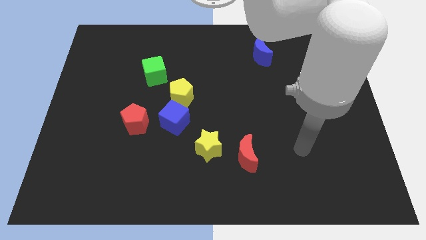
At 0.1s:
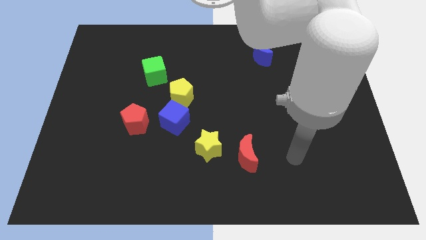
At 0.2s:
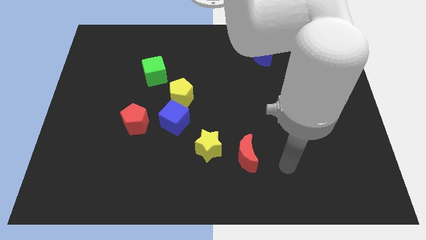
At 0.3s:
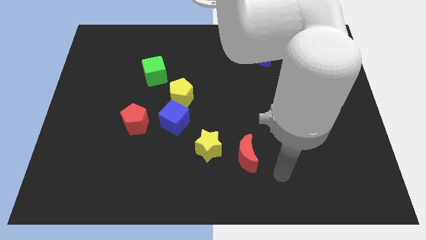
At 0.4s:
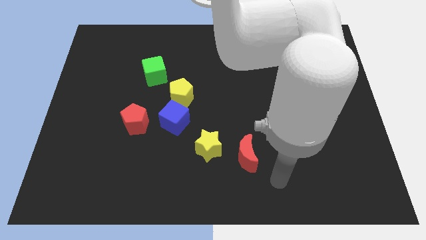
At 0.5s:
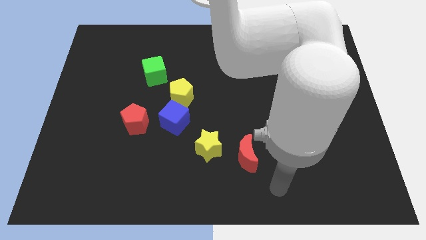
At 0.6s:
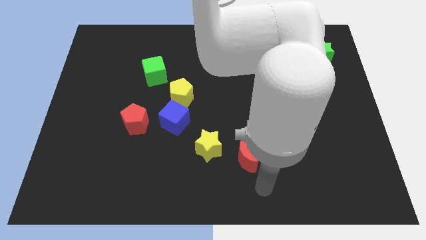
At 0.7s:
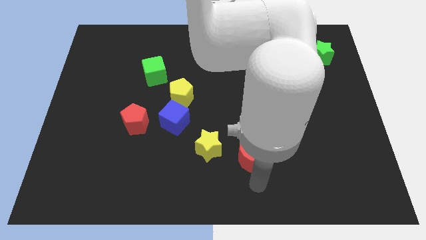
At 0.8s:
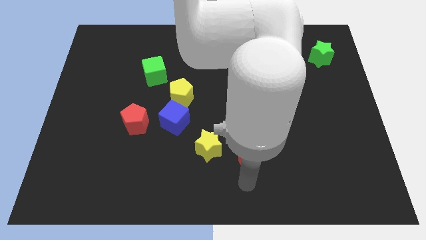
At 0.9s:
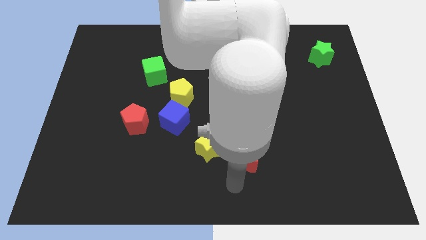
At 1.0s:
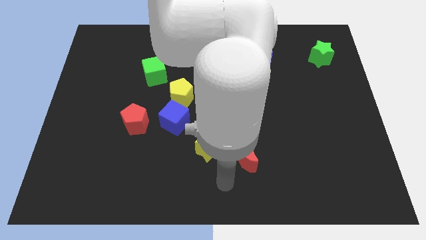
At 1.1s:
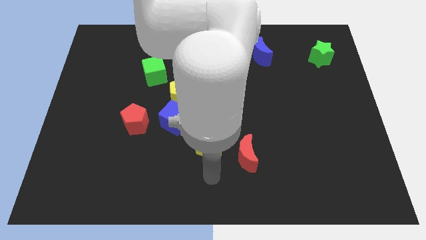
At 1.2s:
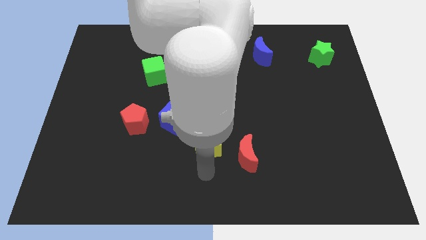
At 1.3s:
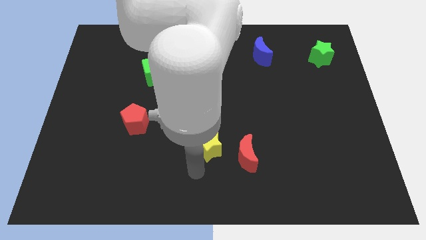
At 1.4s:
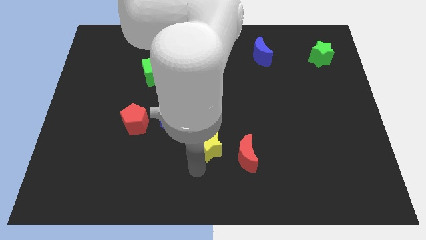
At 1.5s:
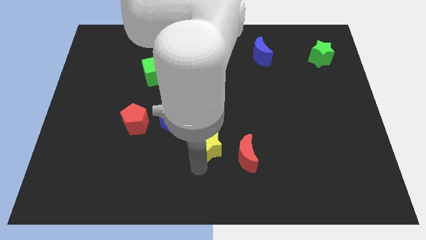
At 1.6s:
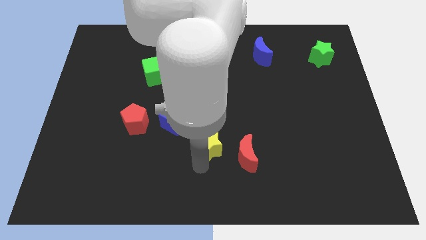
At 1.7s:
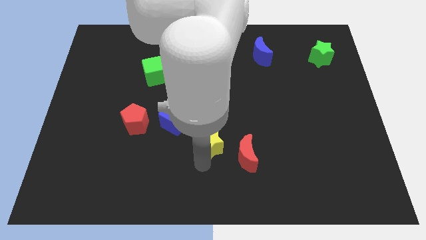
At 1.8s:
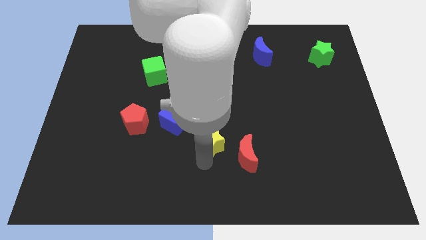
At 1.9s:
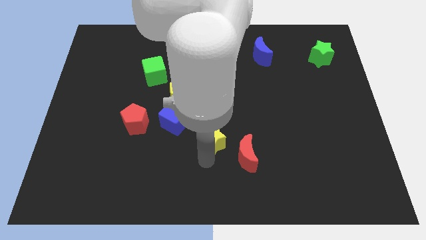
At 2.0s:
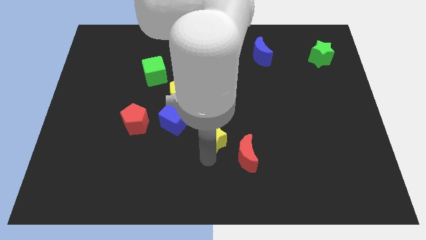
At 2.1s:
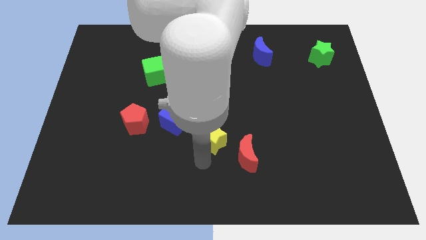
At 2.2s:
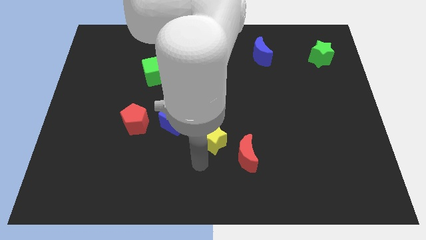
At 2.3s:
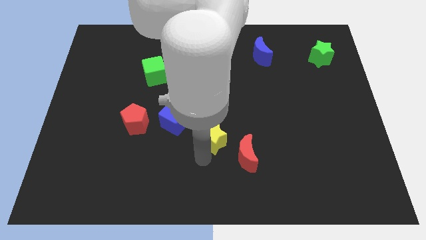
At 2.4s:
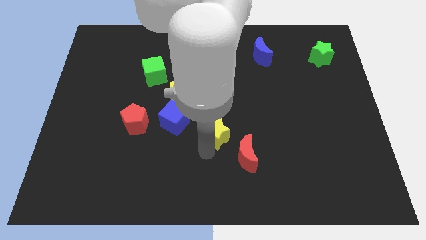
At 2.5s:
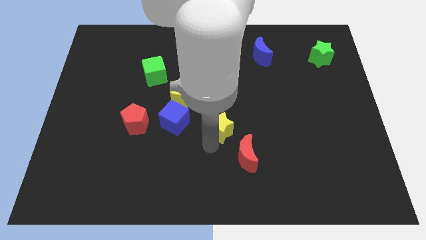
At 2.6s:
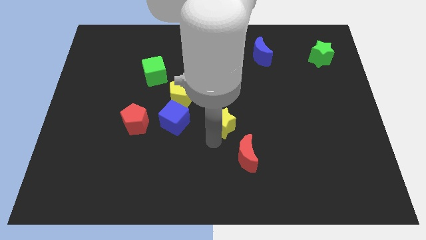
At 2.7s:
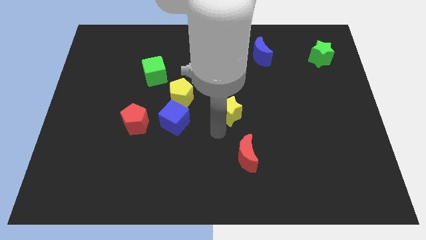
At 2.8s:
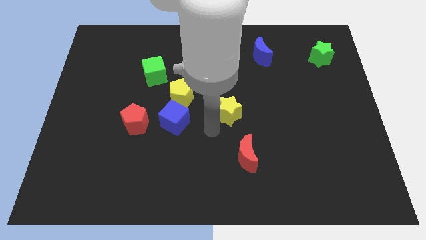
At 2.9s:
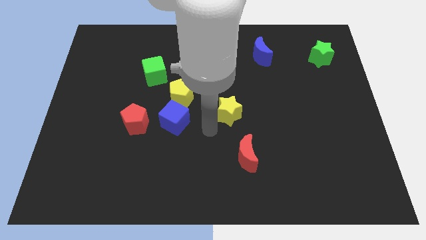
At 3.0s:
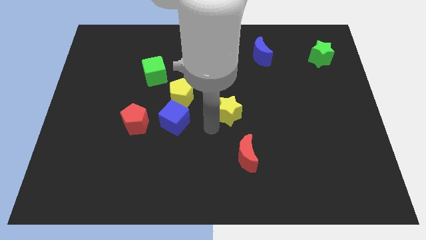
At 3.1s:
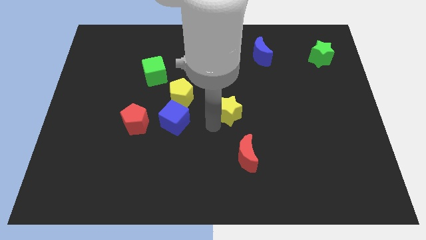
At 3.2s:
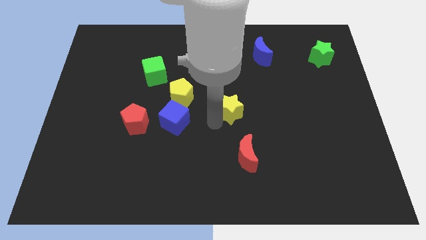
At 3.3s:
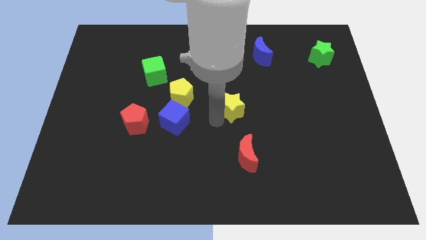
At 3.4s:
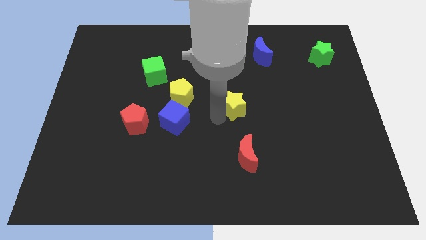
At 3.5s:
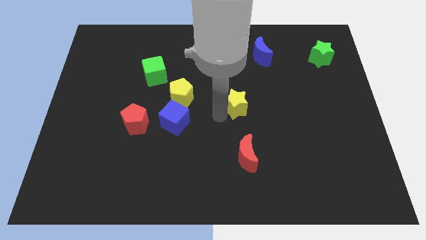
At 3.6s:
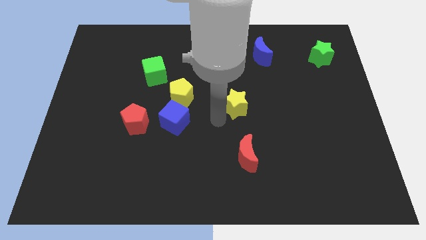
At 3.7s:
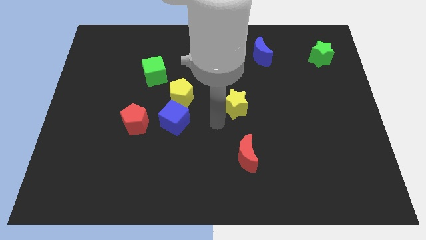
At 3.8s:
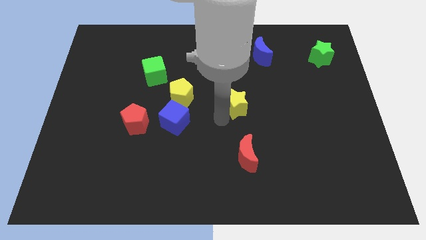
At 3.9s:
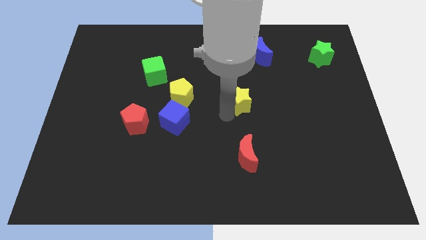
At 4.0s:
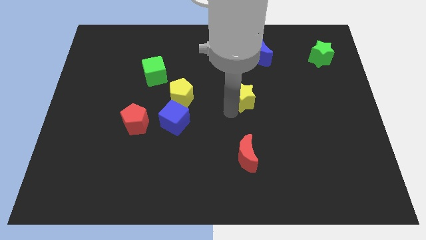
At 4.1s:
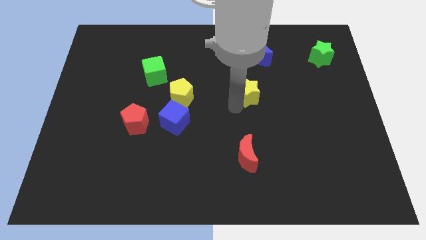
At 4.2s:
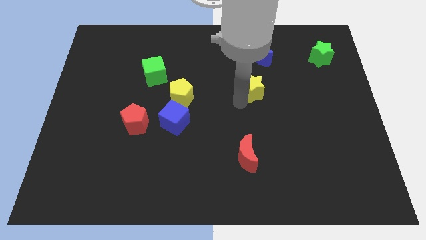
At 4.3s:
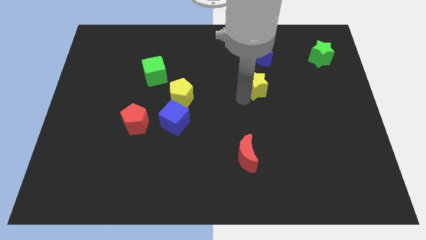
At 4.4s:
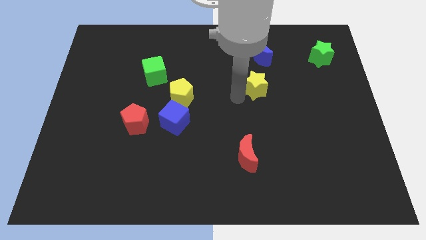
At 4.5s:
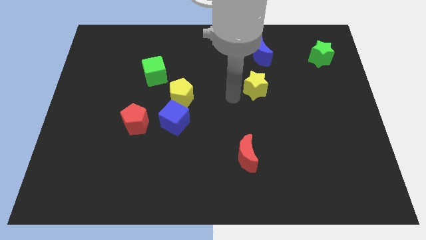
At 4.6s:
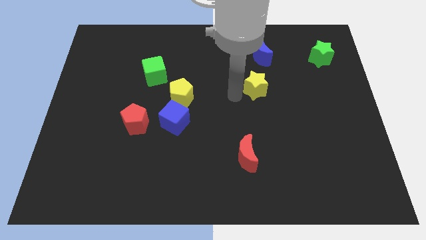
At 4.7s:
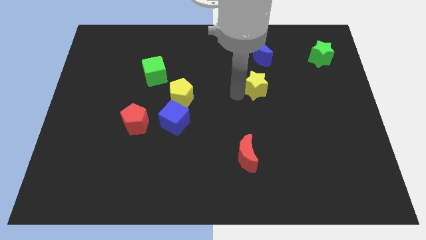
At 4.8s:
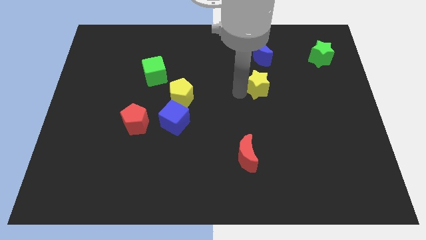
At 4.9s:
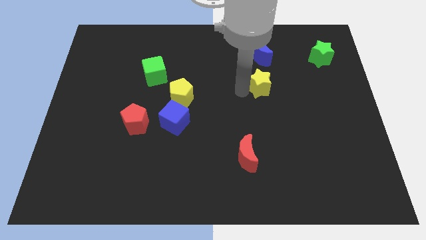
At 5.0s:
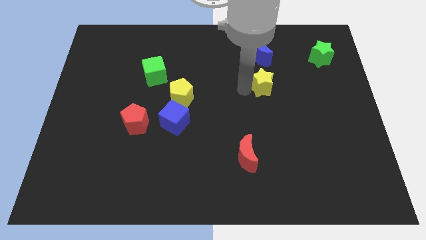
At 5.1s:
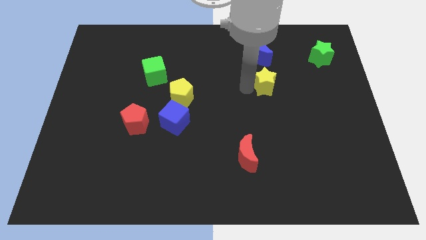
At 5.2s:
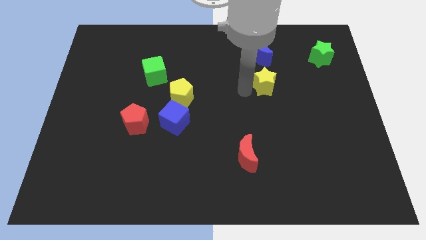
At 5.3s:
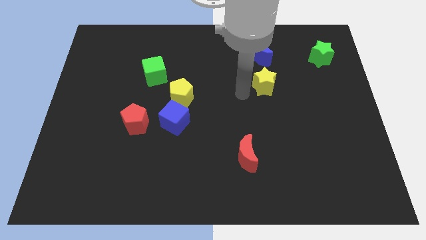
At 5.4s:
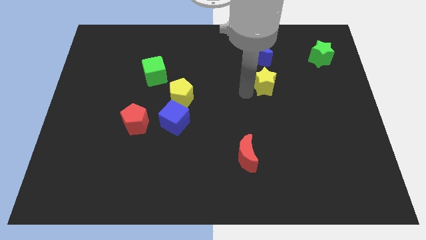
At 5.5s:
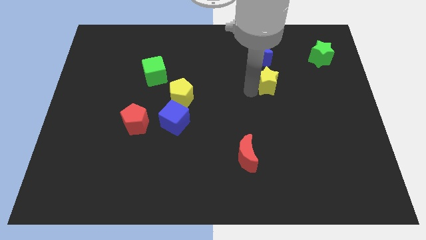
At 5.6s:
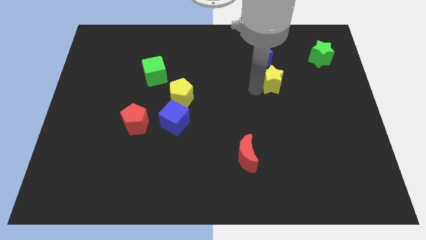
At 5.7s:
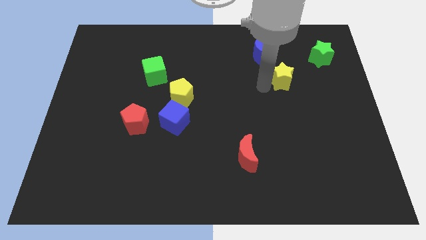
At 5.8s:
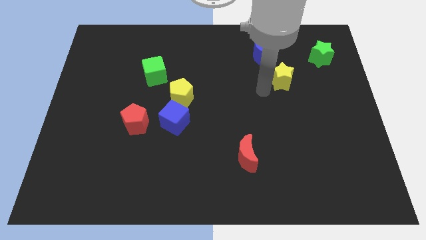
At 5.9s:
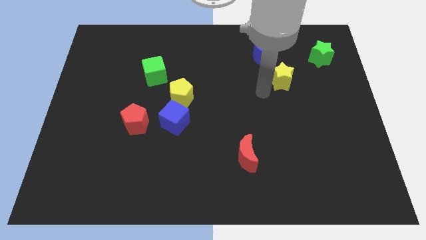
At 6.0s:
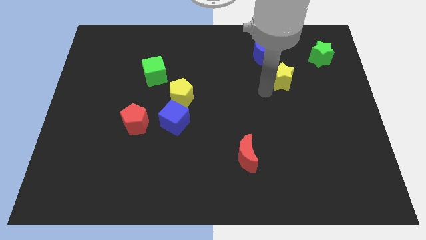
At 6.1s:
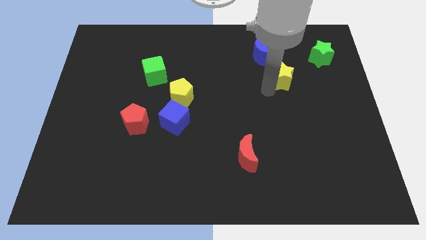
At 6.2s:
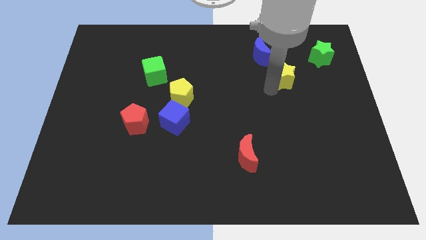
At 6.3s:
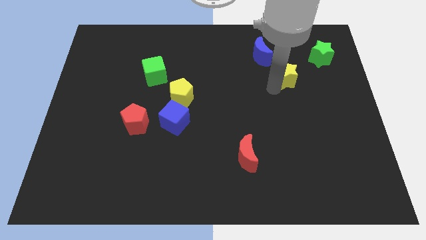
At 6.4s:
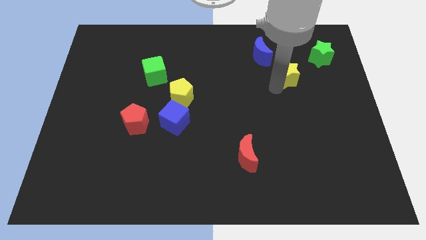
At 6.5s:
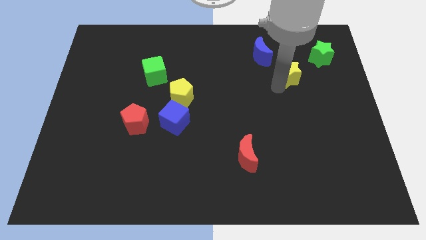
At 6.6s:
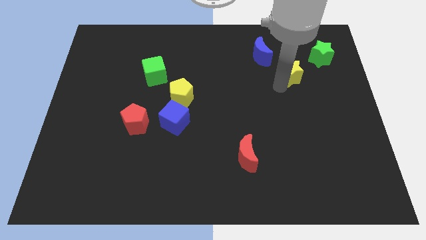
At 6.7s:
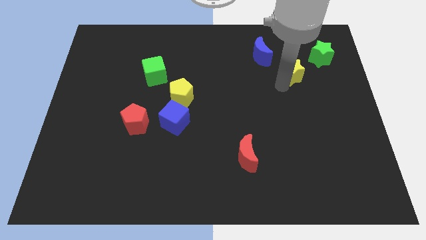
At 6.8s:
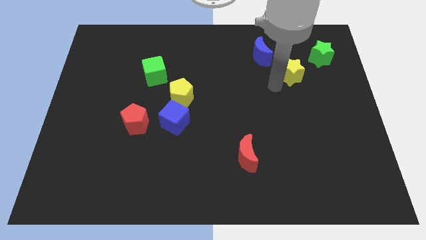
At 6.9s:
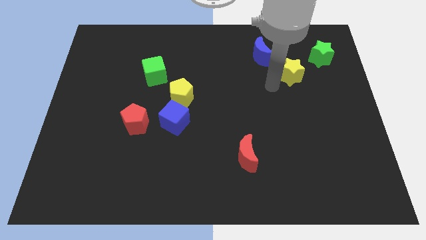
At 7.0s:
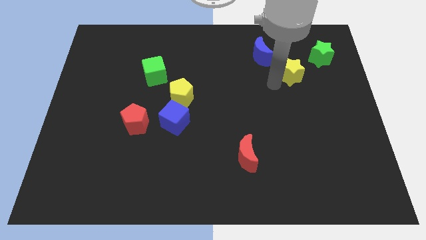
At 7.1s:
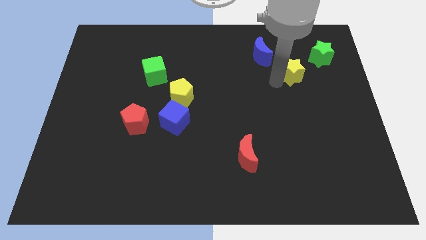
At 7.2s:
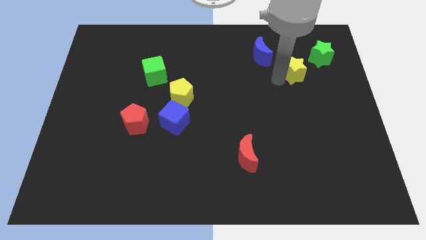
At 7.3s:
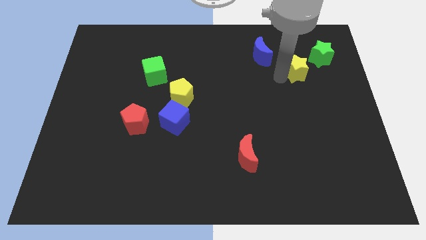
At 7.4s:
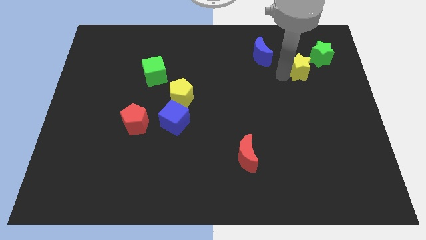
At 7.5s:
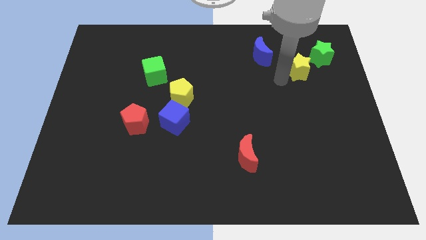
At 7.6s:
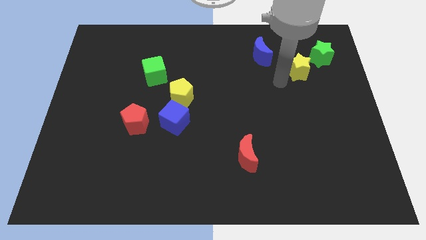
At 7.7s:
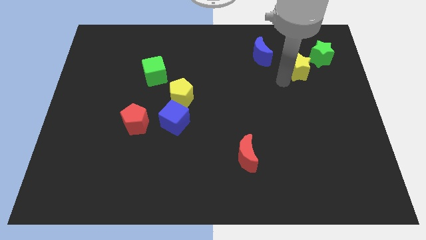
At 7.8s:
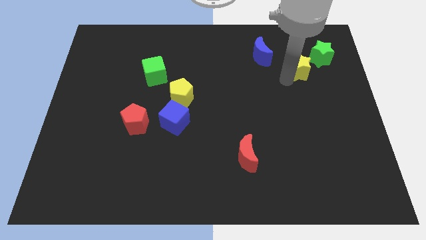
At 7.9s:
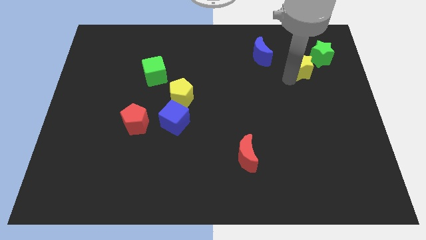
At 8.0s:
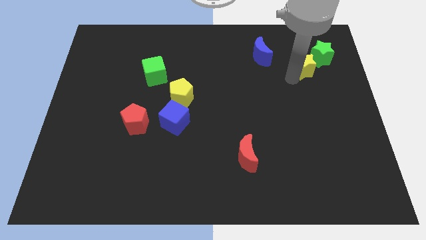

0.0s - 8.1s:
put the yellow star towards the green star
